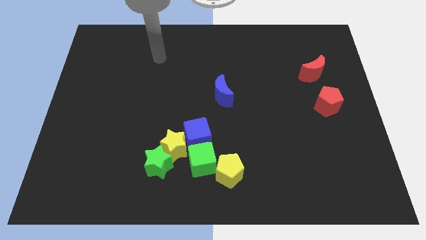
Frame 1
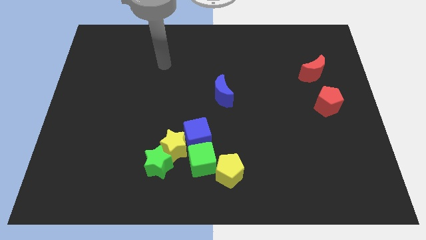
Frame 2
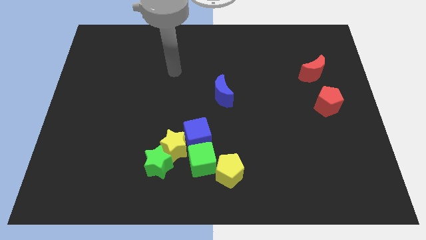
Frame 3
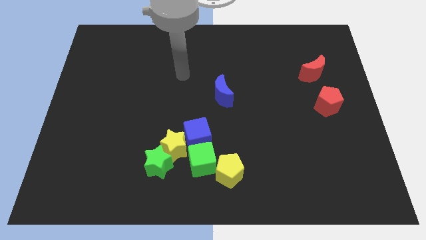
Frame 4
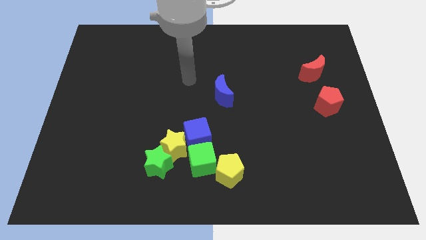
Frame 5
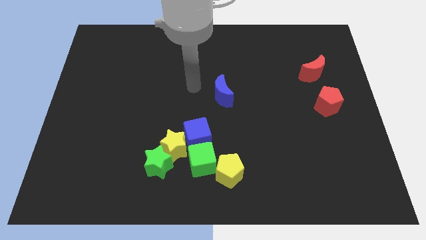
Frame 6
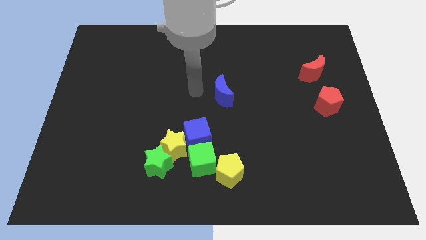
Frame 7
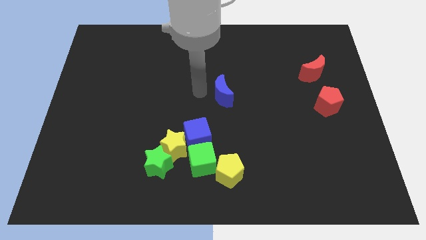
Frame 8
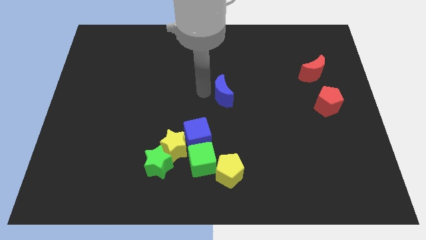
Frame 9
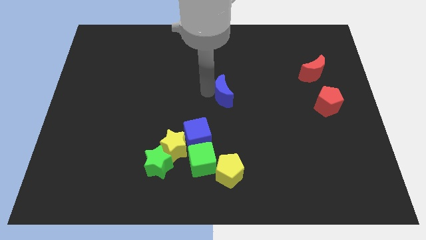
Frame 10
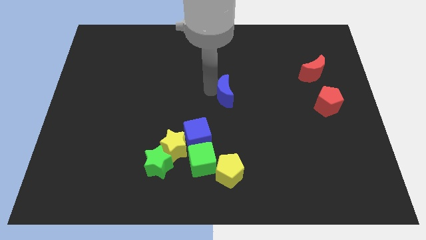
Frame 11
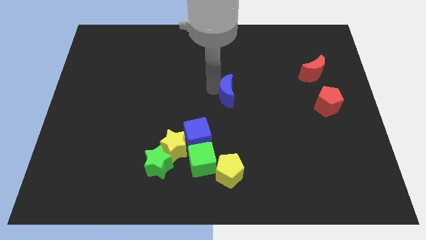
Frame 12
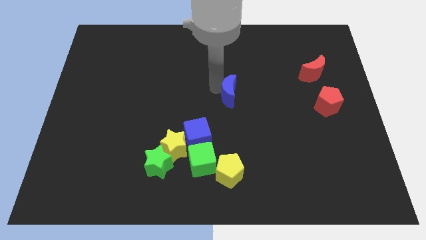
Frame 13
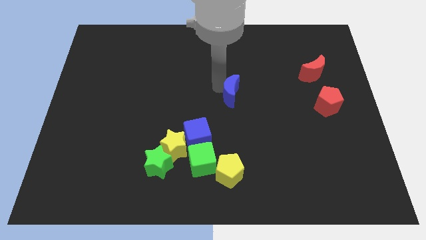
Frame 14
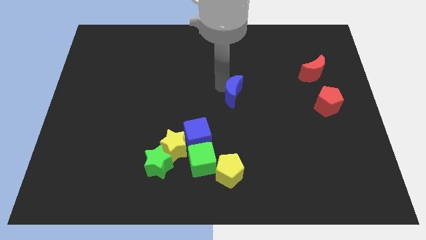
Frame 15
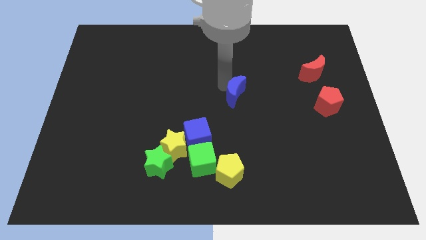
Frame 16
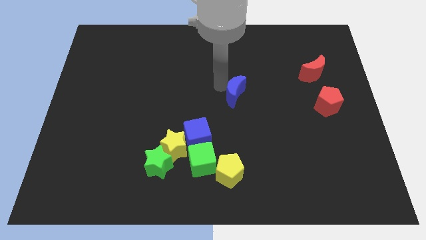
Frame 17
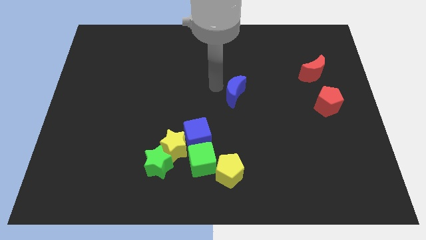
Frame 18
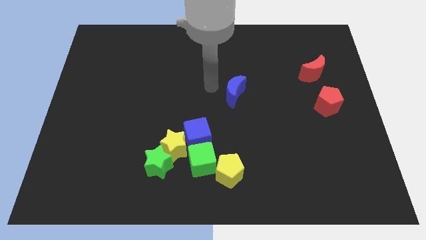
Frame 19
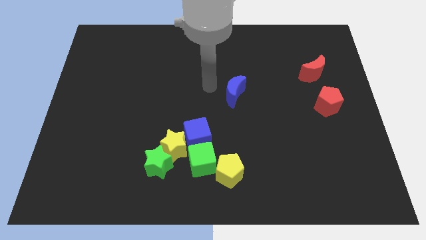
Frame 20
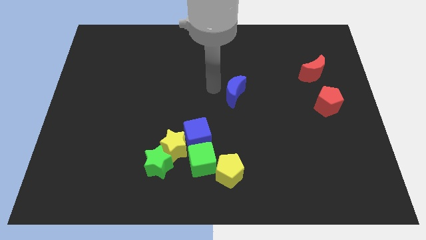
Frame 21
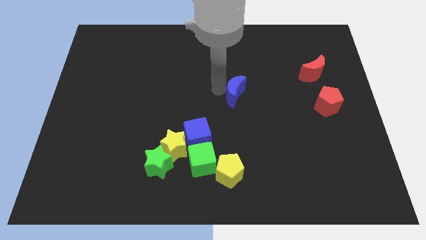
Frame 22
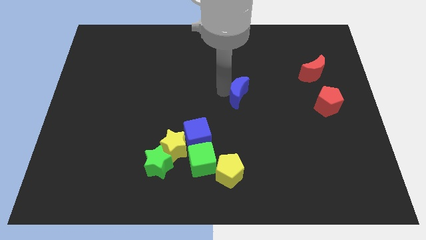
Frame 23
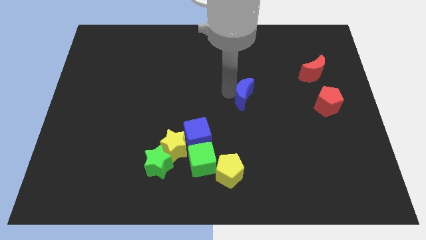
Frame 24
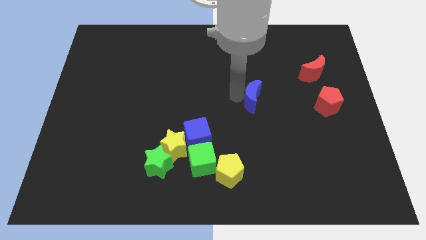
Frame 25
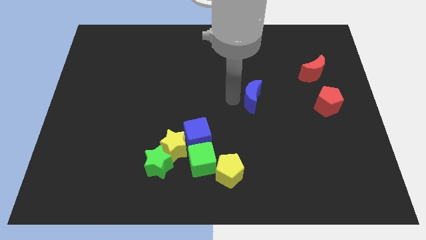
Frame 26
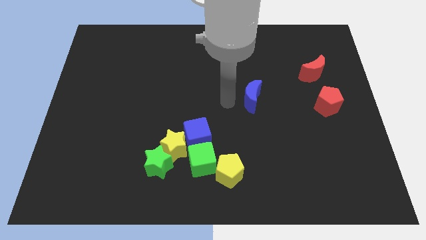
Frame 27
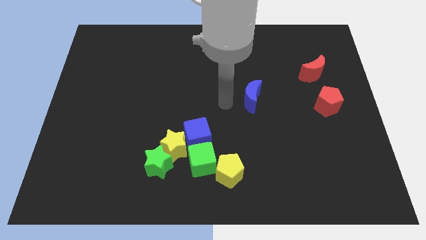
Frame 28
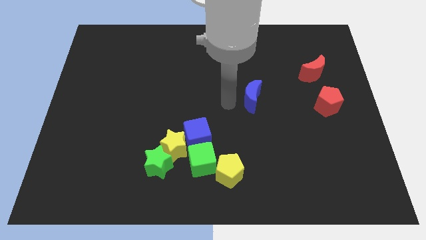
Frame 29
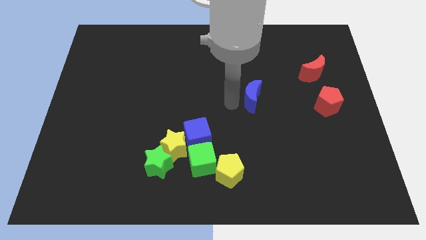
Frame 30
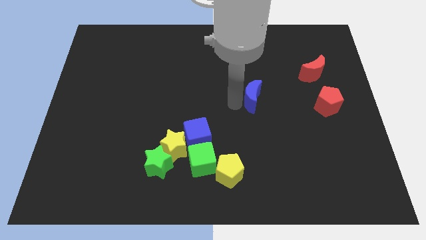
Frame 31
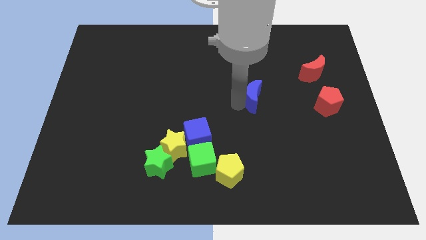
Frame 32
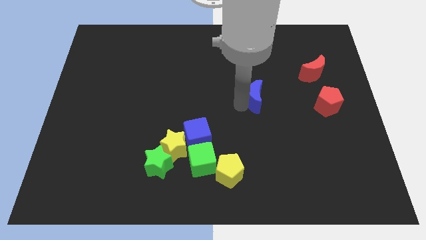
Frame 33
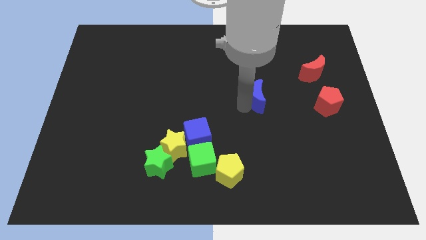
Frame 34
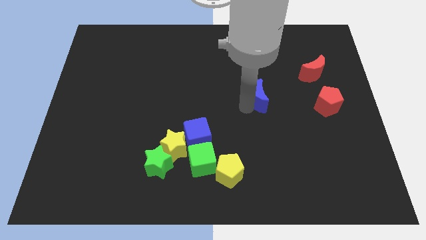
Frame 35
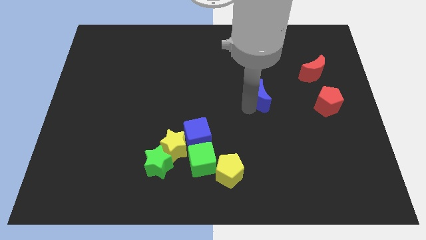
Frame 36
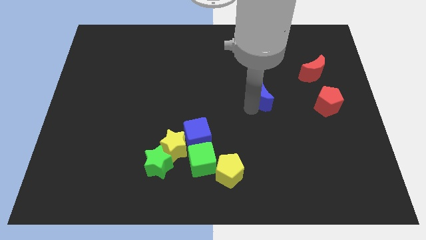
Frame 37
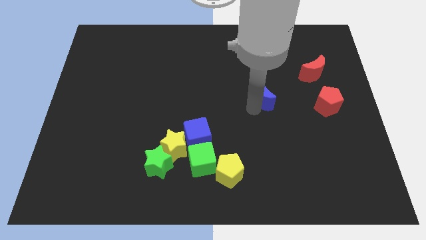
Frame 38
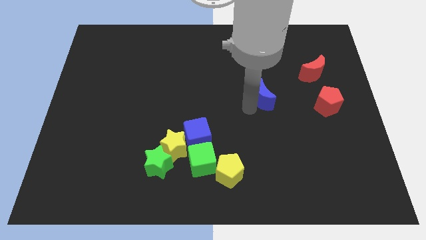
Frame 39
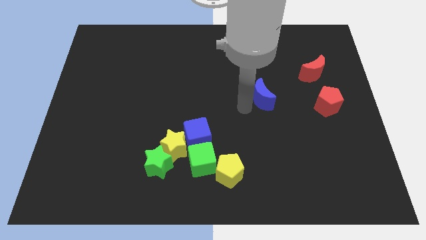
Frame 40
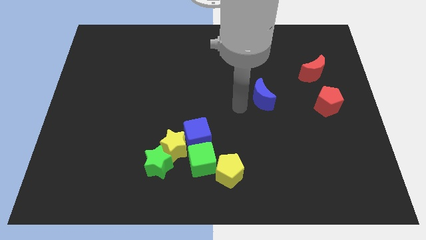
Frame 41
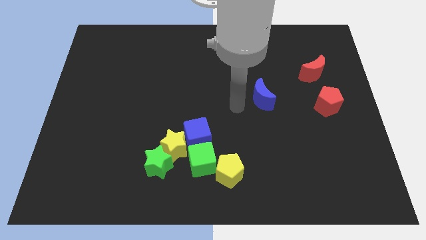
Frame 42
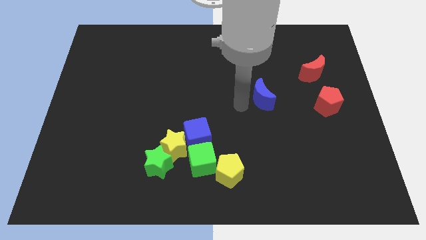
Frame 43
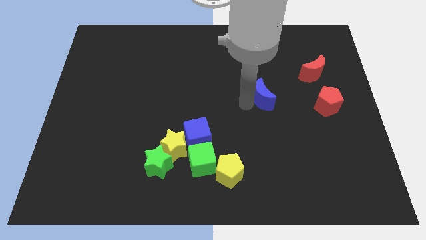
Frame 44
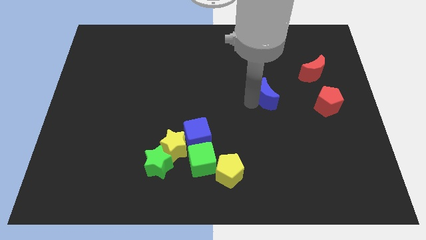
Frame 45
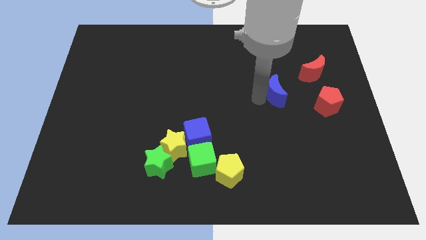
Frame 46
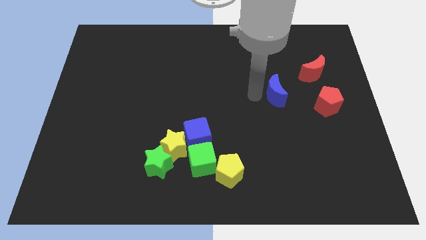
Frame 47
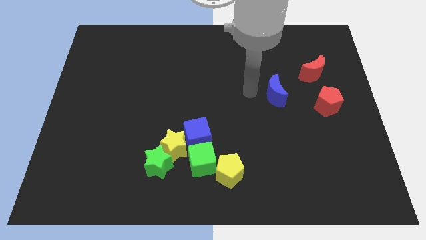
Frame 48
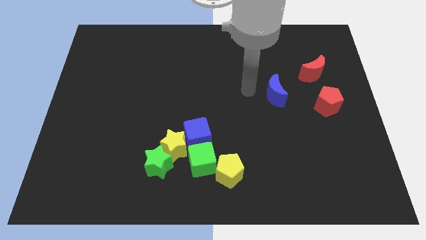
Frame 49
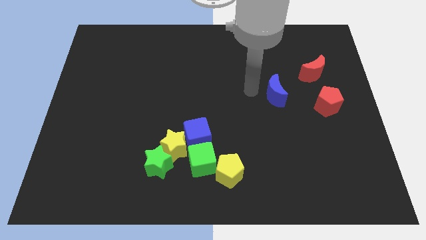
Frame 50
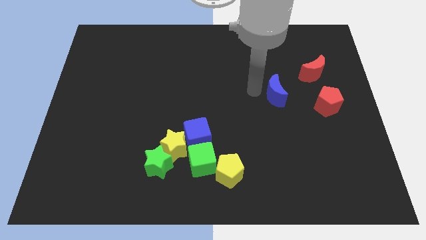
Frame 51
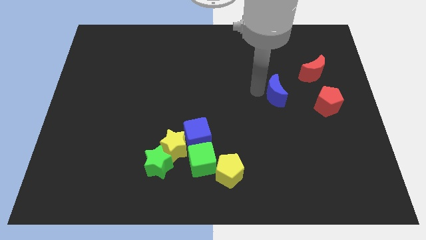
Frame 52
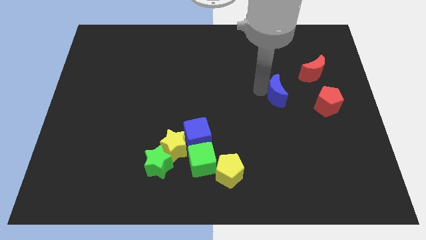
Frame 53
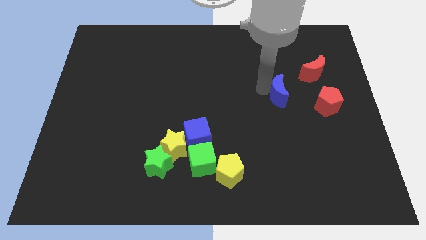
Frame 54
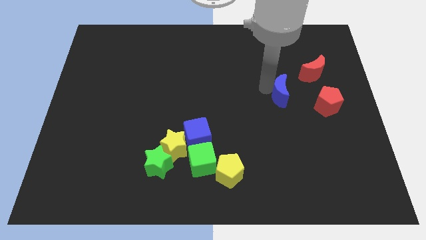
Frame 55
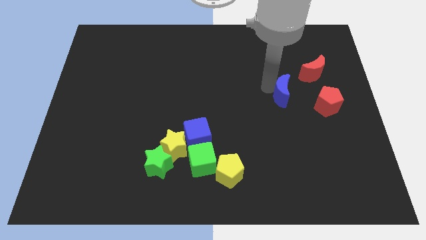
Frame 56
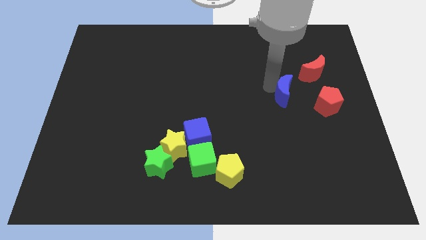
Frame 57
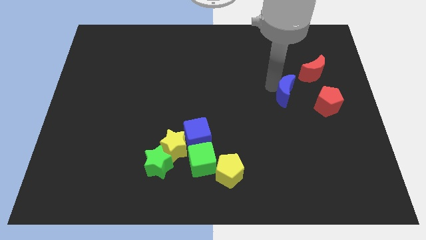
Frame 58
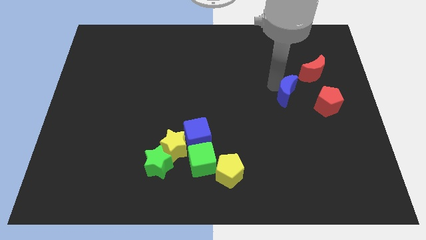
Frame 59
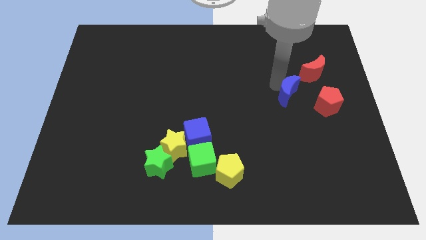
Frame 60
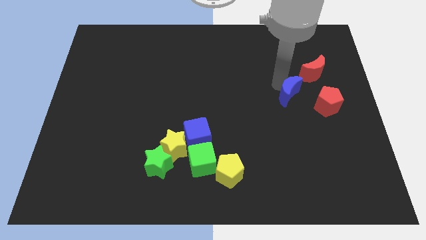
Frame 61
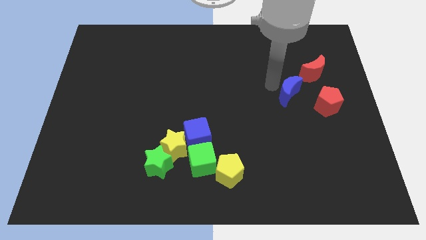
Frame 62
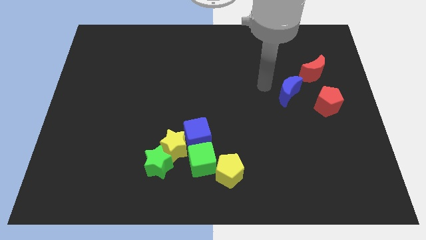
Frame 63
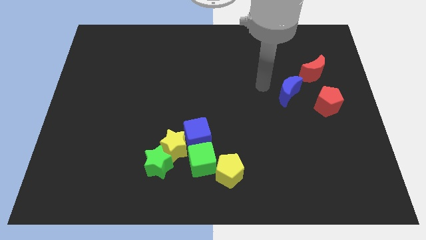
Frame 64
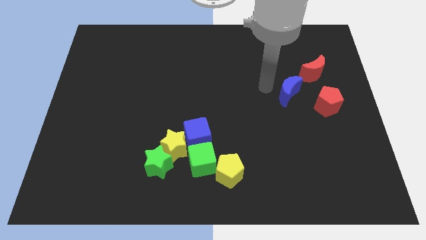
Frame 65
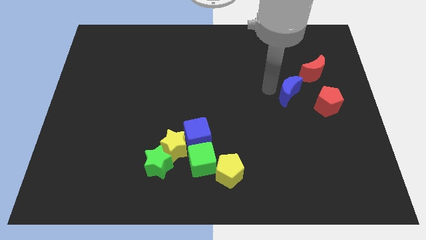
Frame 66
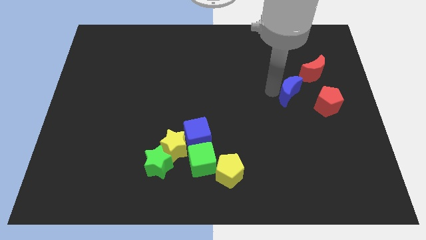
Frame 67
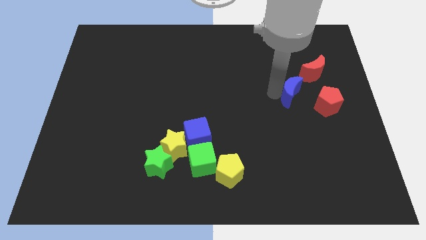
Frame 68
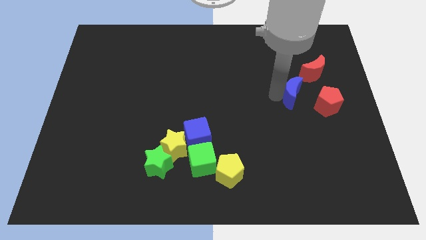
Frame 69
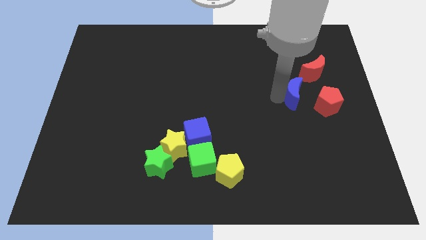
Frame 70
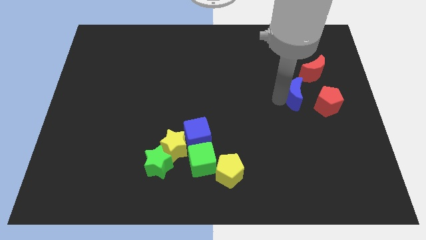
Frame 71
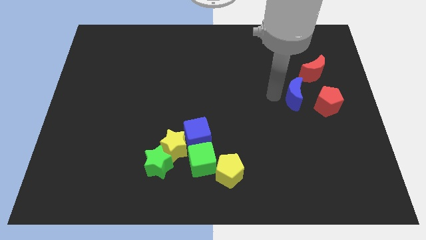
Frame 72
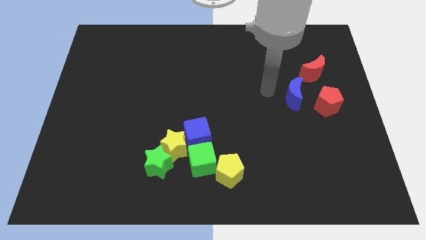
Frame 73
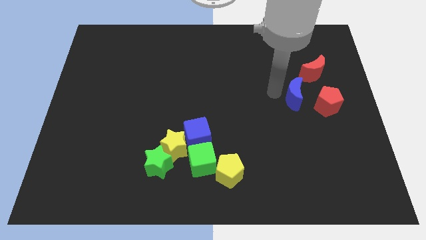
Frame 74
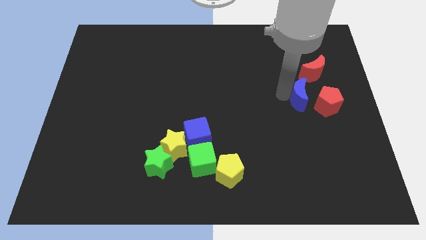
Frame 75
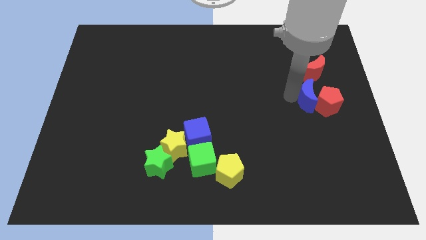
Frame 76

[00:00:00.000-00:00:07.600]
push the blue moon towards the red pentagon
